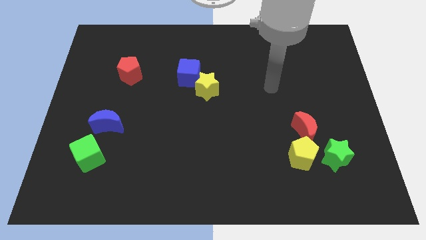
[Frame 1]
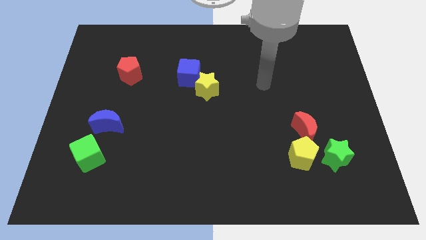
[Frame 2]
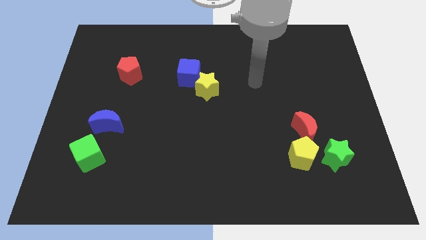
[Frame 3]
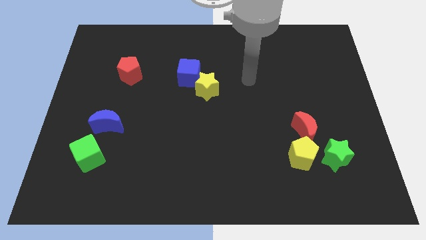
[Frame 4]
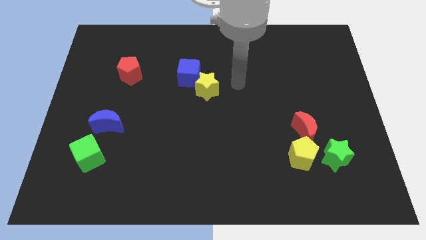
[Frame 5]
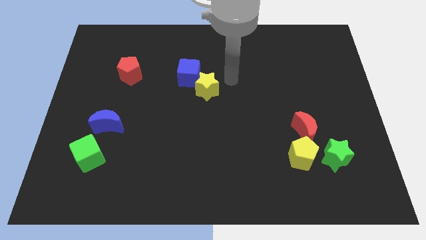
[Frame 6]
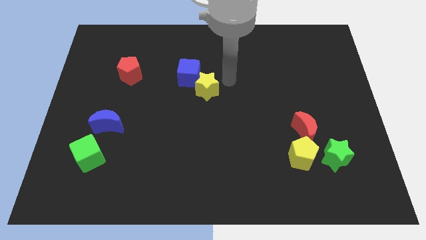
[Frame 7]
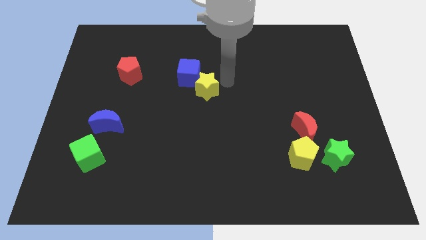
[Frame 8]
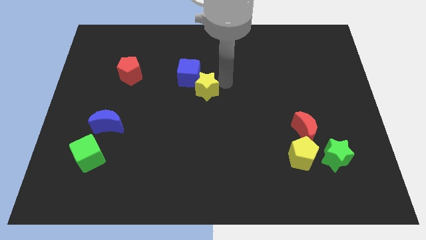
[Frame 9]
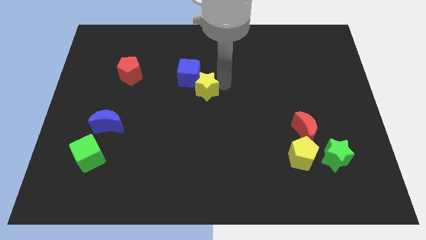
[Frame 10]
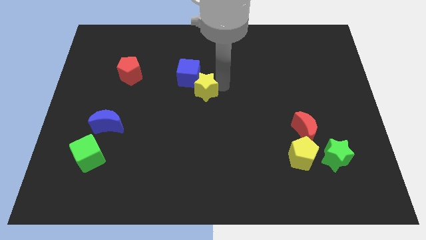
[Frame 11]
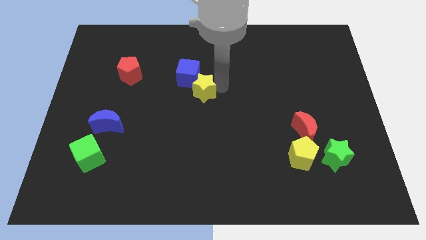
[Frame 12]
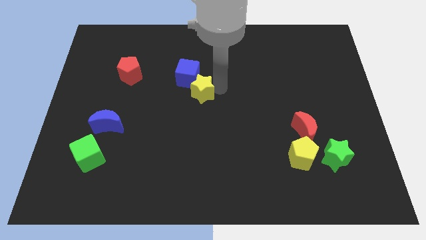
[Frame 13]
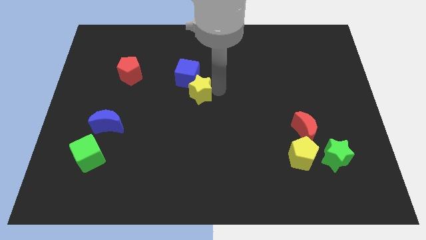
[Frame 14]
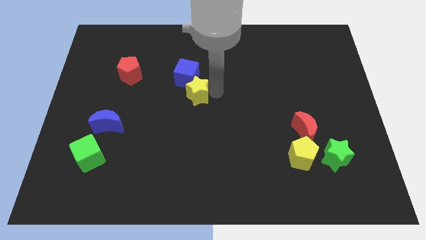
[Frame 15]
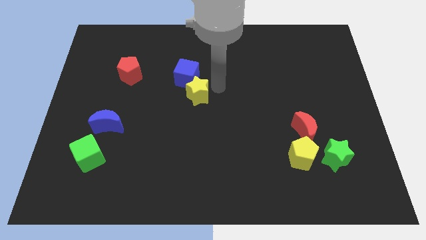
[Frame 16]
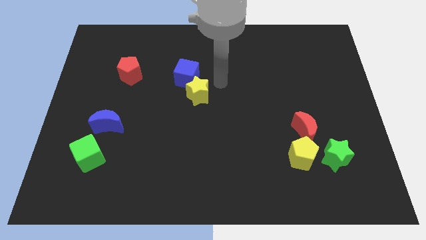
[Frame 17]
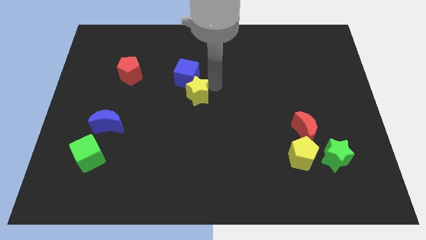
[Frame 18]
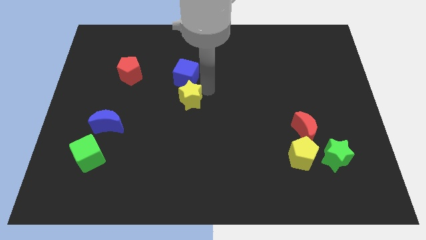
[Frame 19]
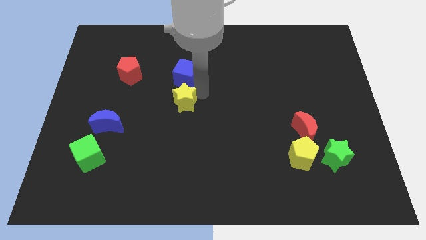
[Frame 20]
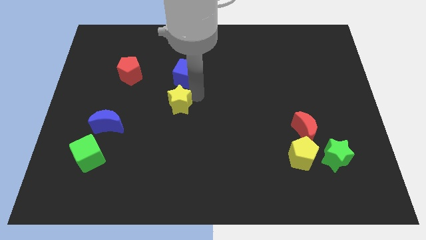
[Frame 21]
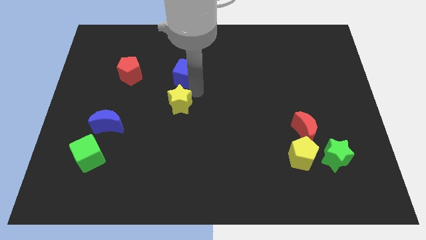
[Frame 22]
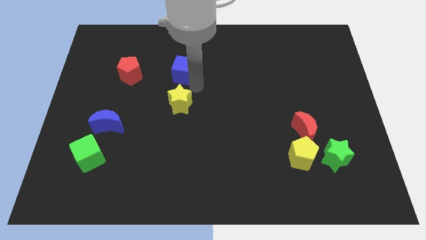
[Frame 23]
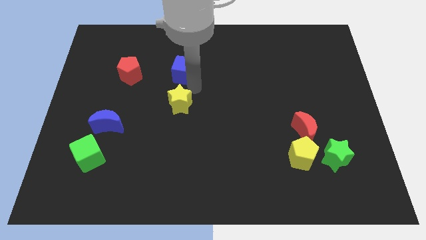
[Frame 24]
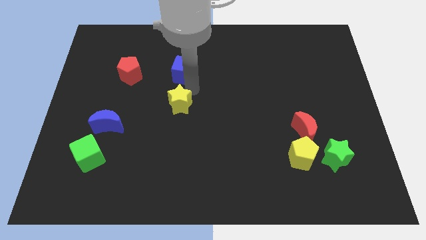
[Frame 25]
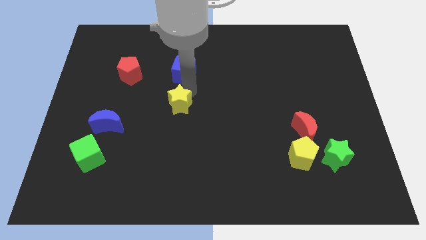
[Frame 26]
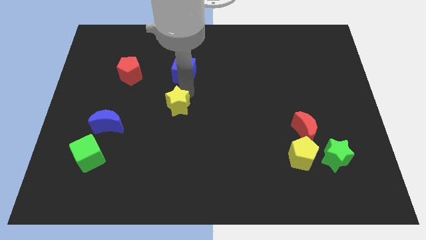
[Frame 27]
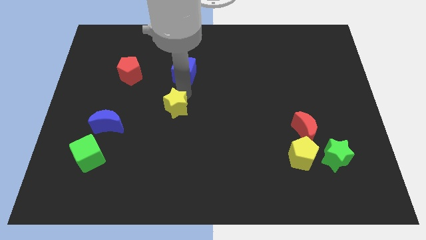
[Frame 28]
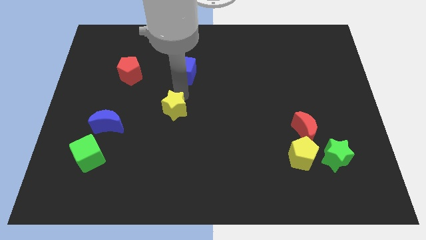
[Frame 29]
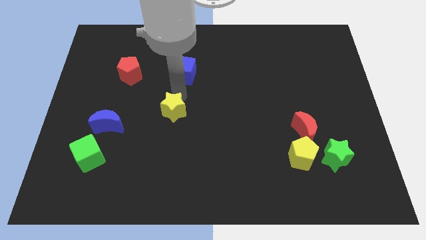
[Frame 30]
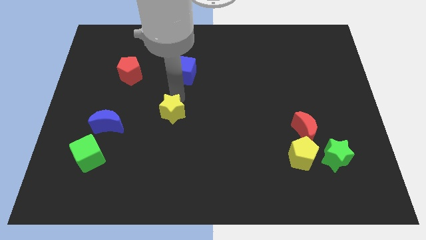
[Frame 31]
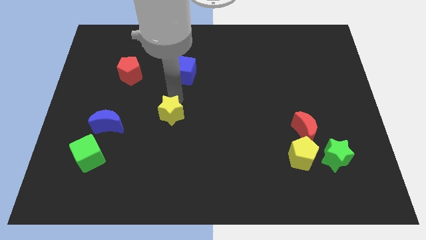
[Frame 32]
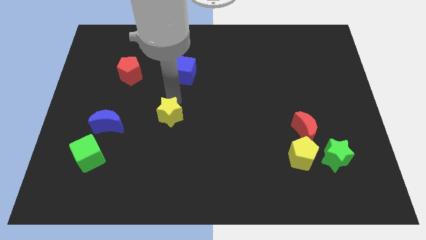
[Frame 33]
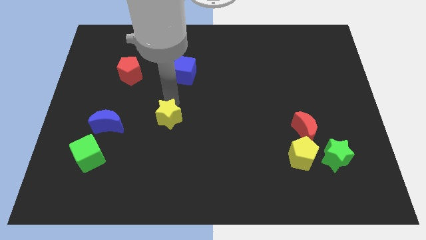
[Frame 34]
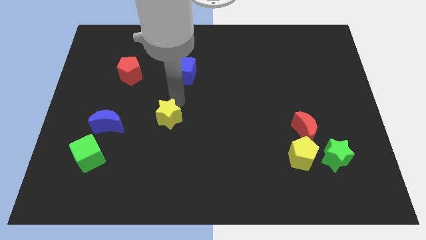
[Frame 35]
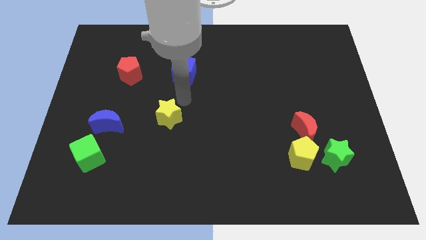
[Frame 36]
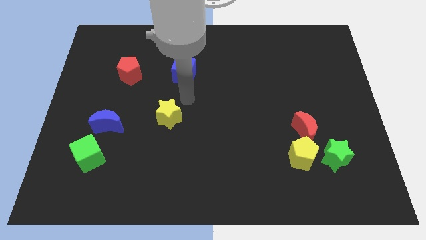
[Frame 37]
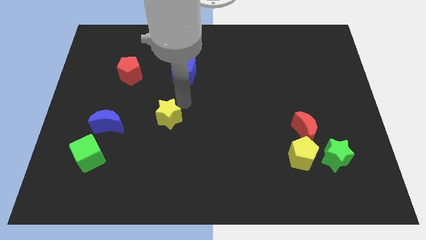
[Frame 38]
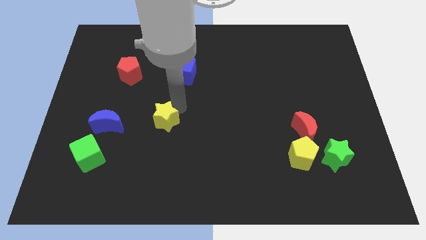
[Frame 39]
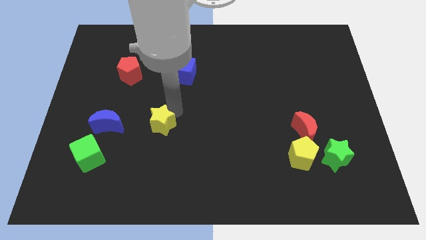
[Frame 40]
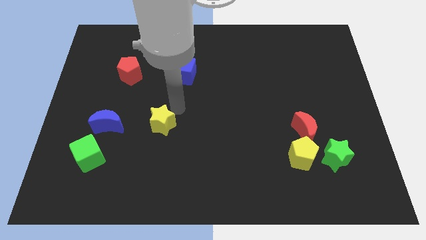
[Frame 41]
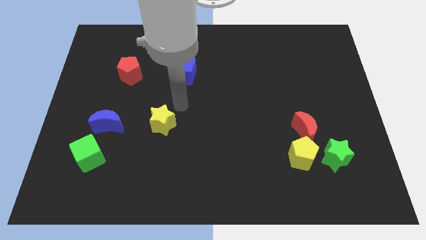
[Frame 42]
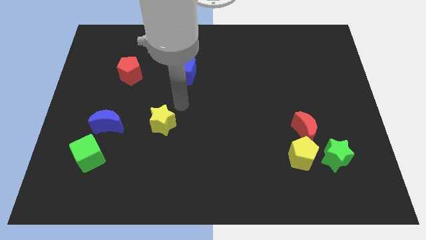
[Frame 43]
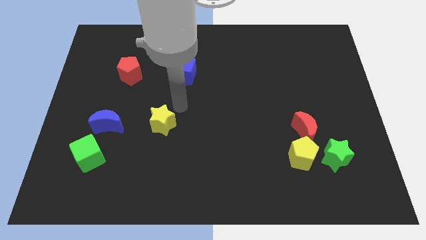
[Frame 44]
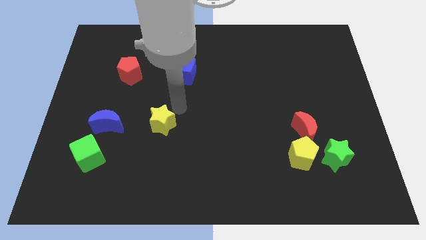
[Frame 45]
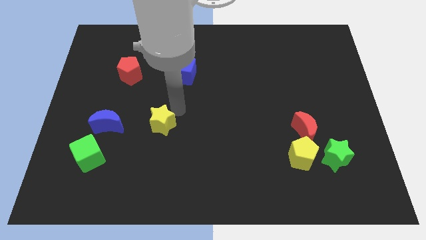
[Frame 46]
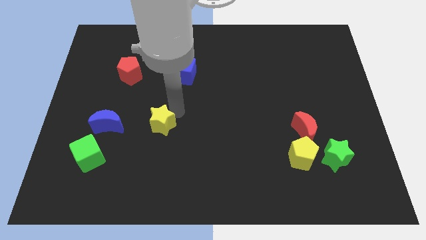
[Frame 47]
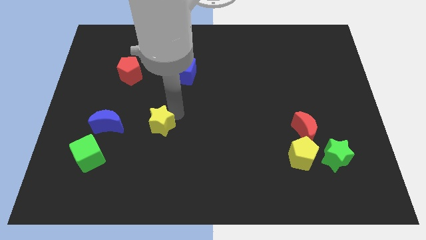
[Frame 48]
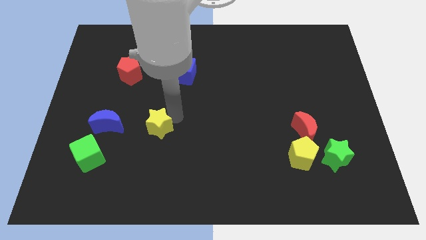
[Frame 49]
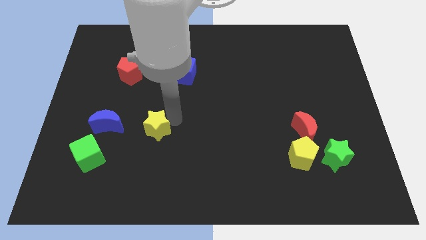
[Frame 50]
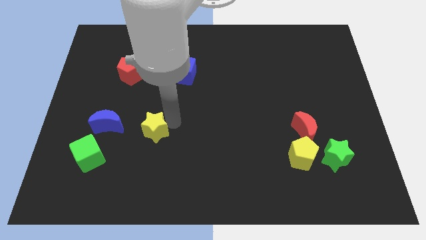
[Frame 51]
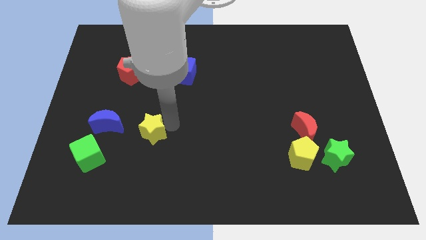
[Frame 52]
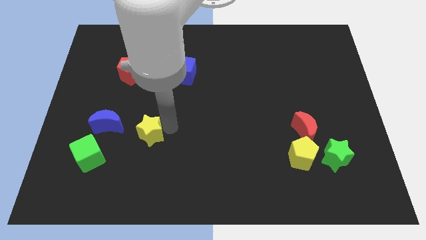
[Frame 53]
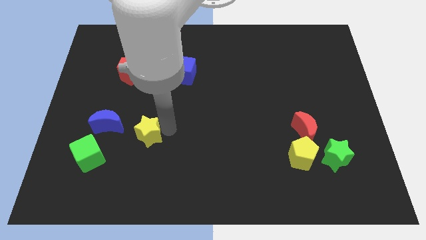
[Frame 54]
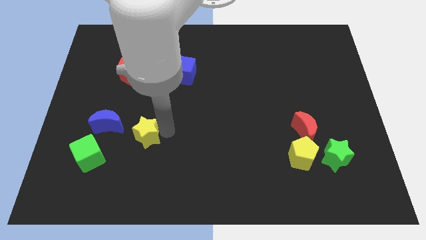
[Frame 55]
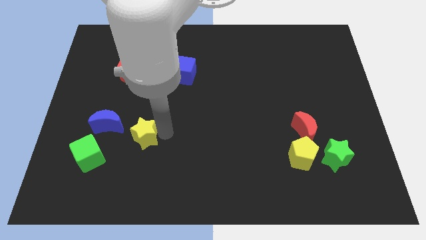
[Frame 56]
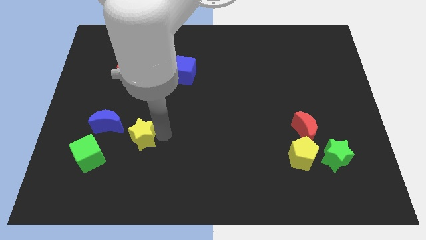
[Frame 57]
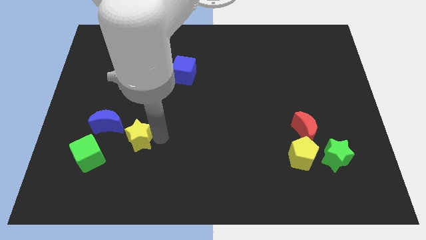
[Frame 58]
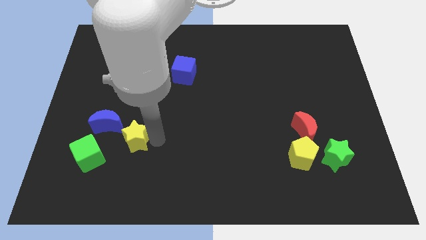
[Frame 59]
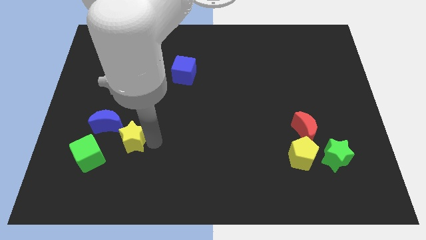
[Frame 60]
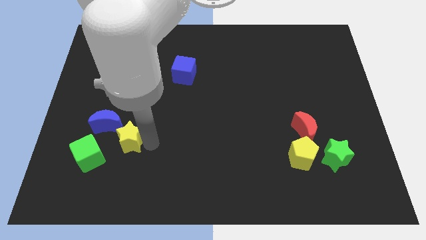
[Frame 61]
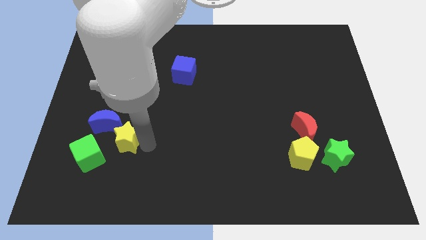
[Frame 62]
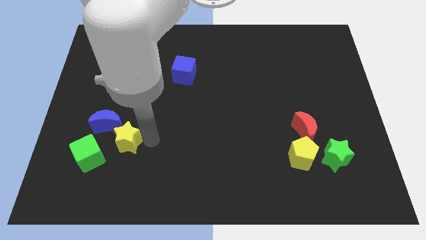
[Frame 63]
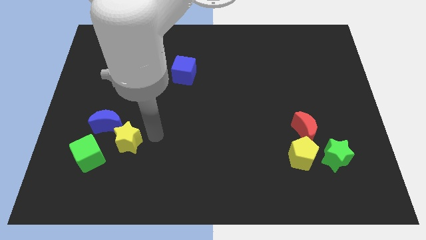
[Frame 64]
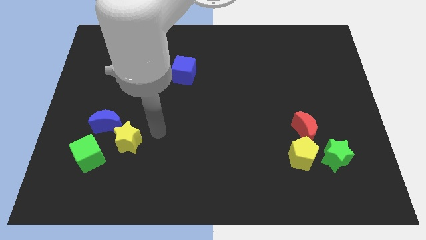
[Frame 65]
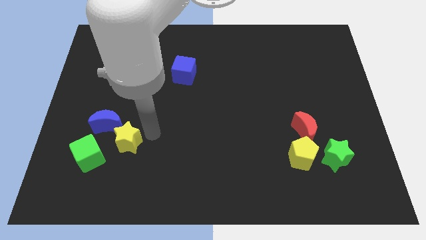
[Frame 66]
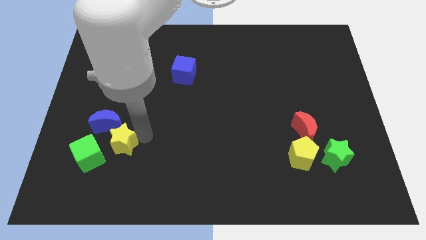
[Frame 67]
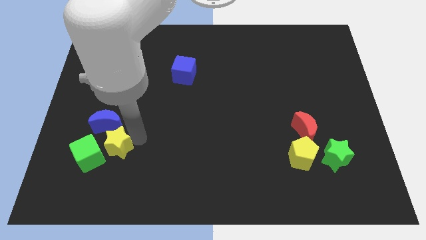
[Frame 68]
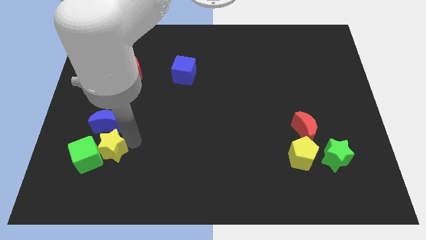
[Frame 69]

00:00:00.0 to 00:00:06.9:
put the yellow star close to the green cube

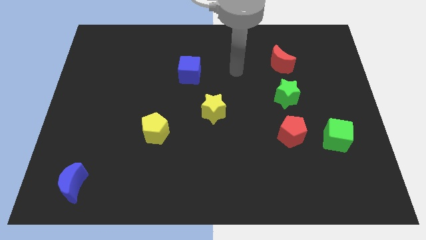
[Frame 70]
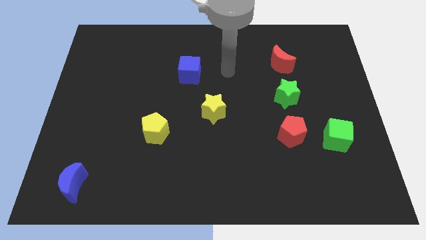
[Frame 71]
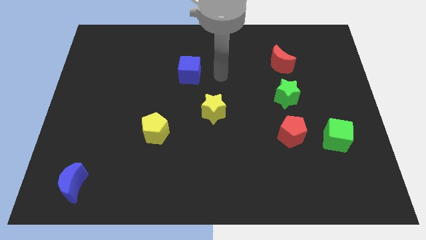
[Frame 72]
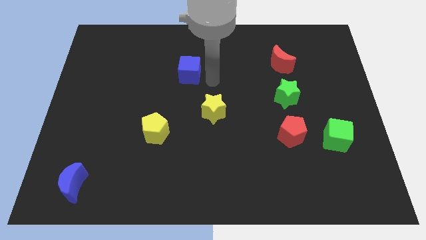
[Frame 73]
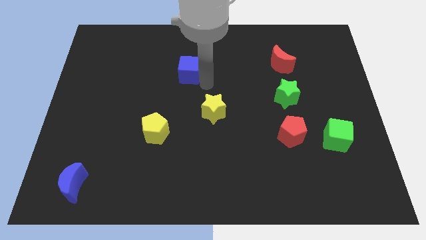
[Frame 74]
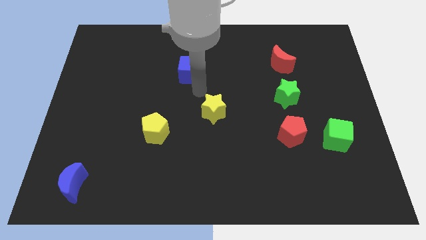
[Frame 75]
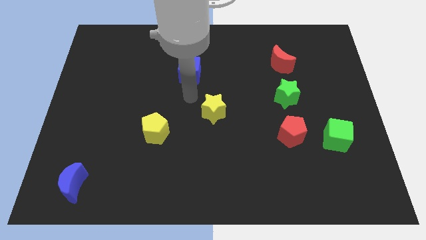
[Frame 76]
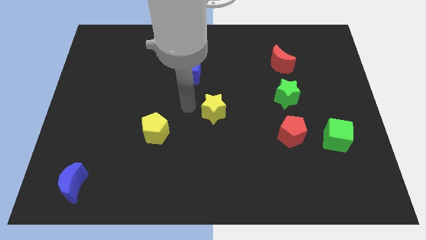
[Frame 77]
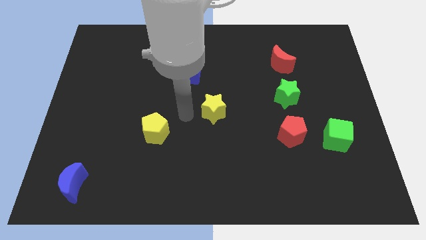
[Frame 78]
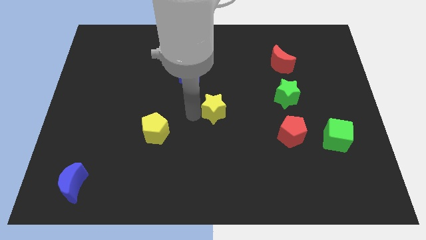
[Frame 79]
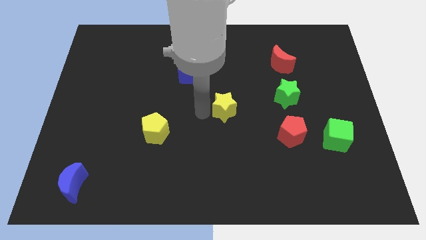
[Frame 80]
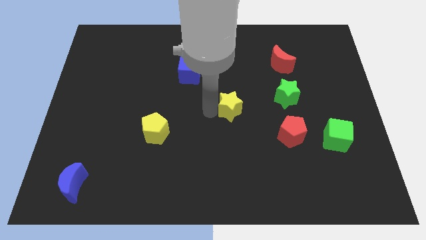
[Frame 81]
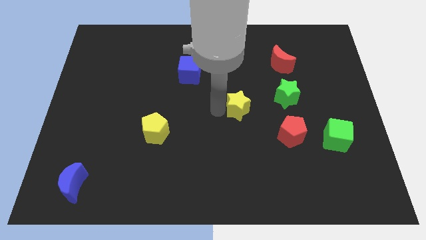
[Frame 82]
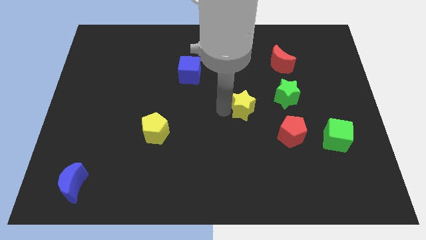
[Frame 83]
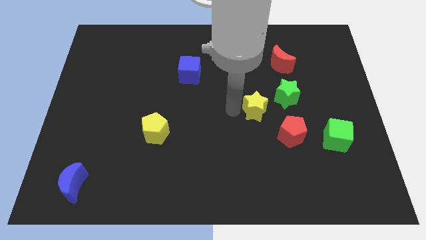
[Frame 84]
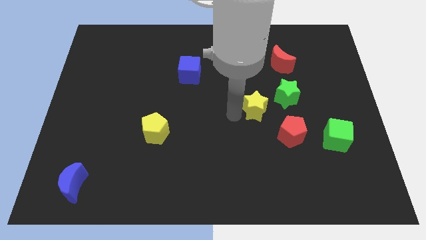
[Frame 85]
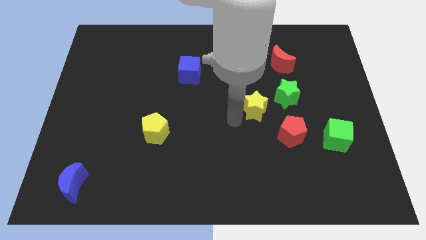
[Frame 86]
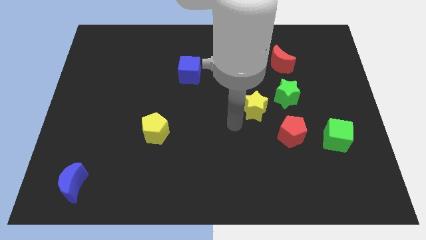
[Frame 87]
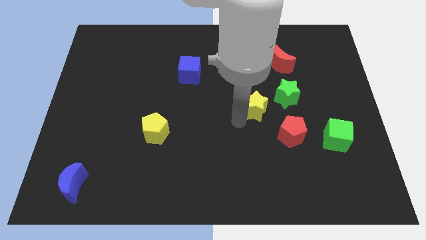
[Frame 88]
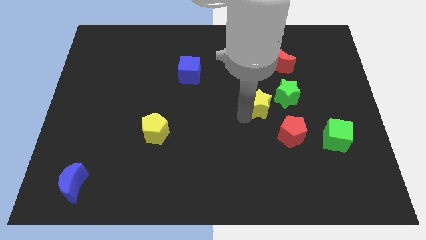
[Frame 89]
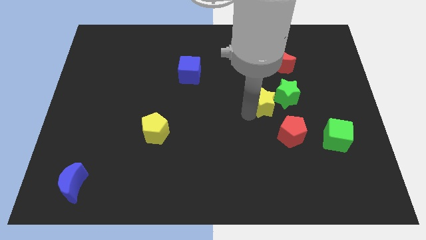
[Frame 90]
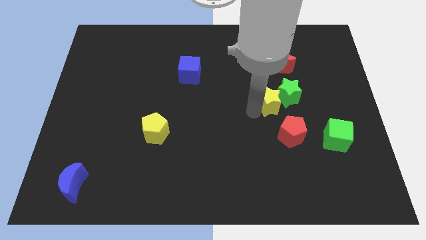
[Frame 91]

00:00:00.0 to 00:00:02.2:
slide the yellow star towards the green star
